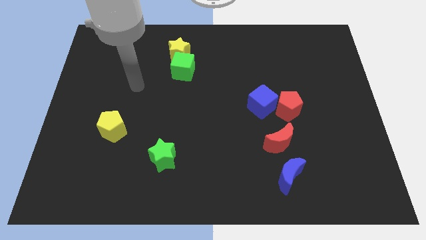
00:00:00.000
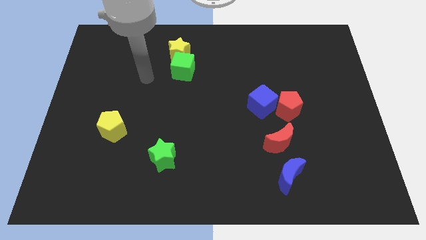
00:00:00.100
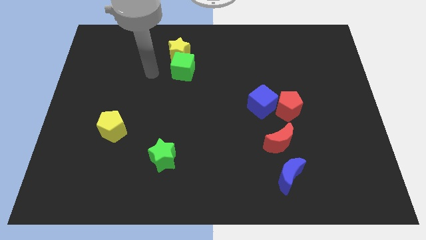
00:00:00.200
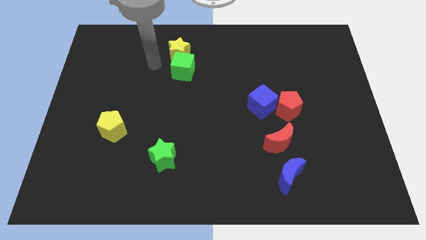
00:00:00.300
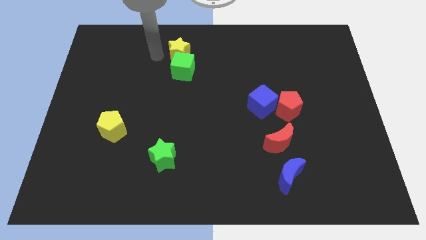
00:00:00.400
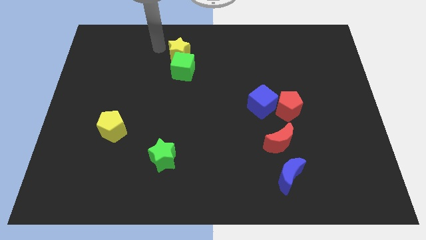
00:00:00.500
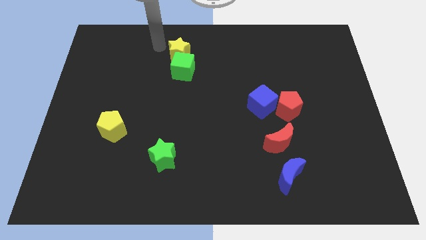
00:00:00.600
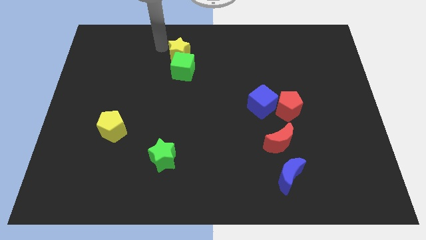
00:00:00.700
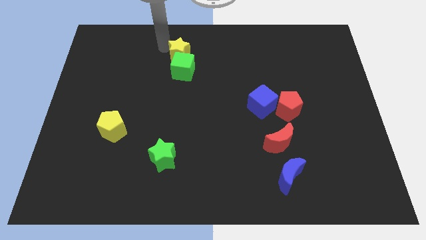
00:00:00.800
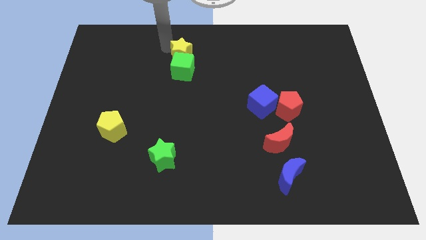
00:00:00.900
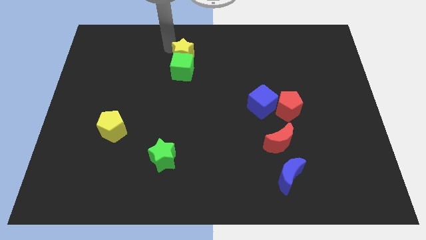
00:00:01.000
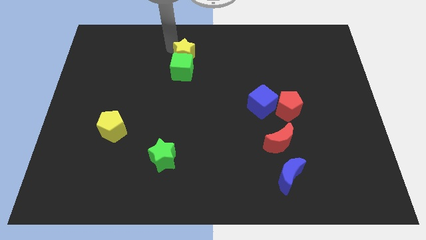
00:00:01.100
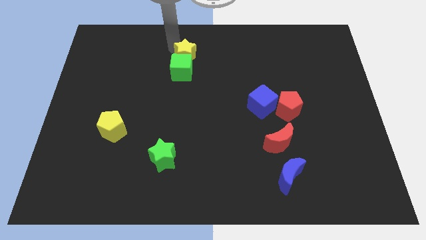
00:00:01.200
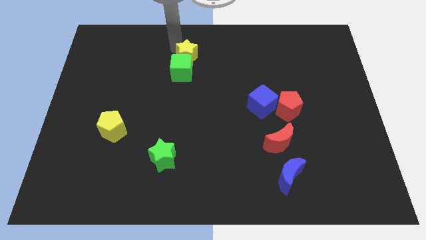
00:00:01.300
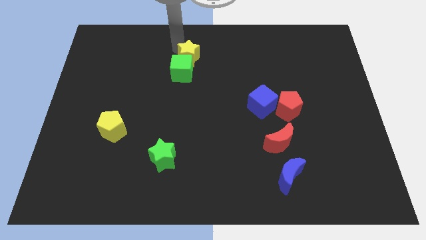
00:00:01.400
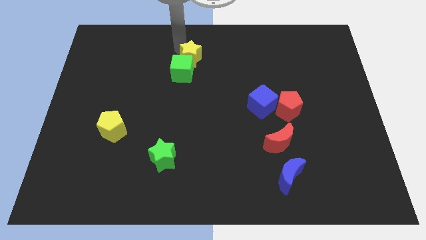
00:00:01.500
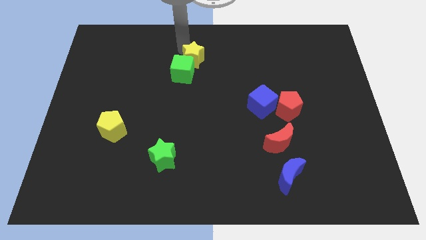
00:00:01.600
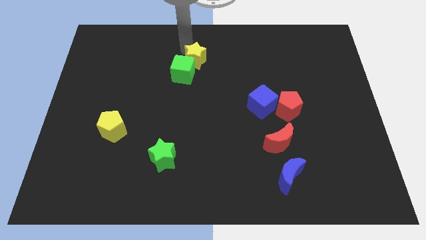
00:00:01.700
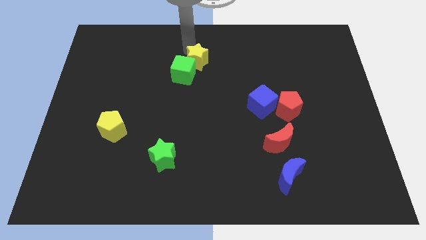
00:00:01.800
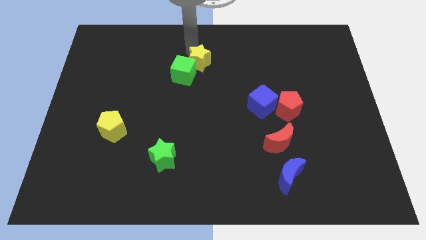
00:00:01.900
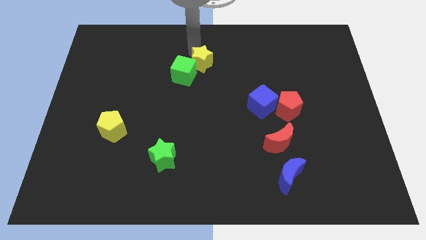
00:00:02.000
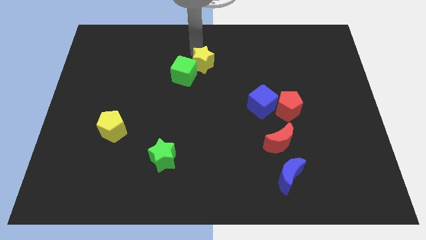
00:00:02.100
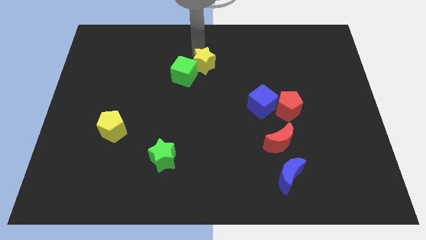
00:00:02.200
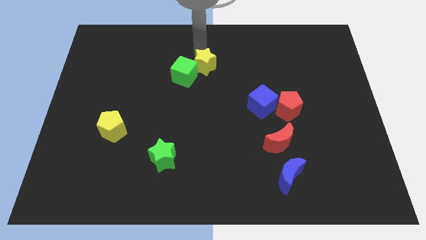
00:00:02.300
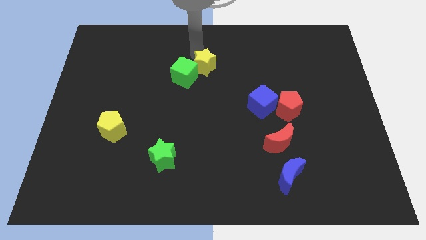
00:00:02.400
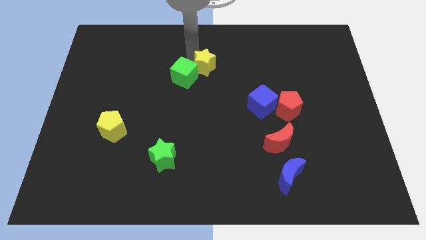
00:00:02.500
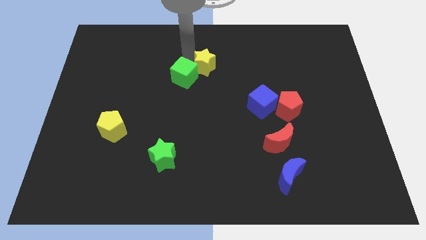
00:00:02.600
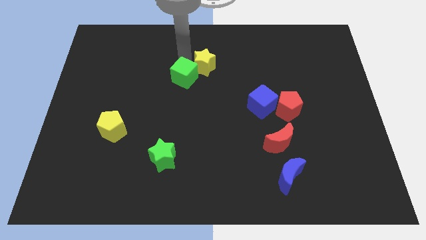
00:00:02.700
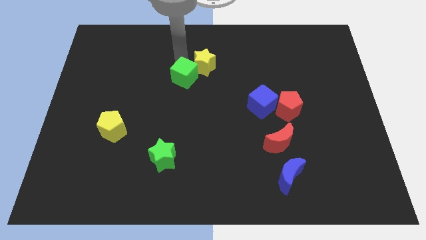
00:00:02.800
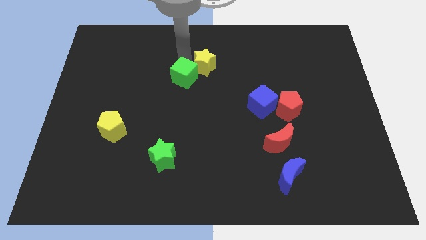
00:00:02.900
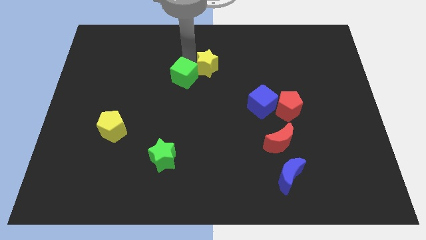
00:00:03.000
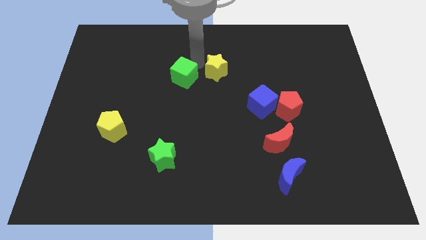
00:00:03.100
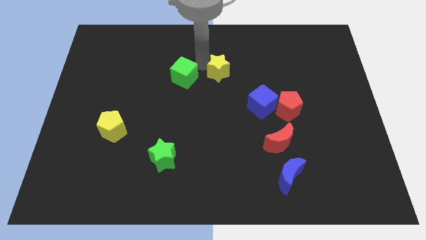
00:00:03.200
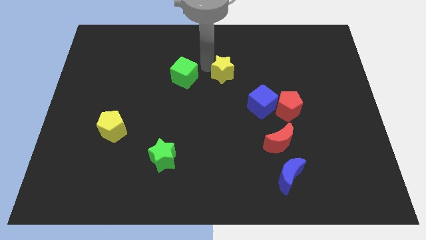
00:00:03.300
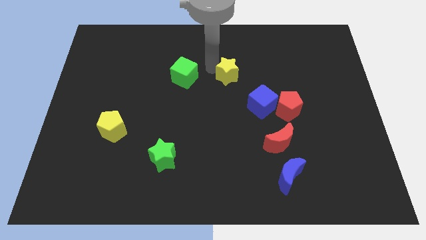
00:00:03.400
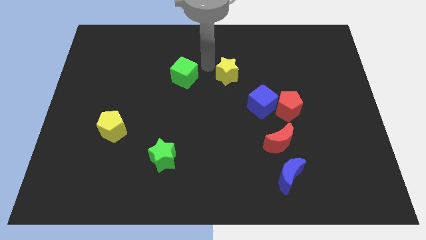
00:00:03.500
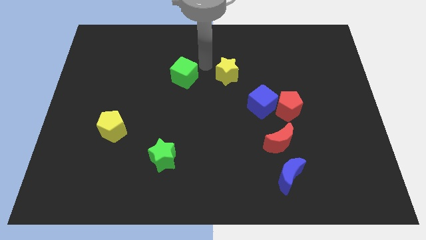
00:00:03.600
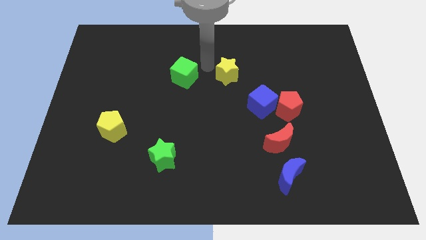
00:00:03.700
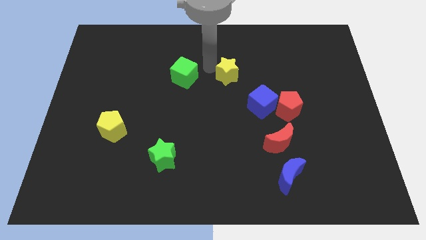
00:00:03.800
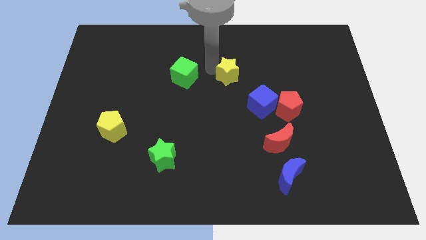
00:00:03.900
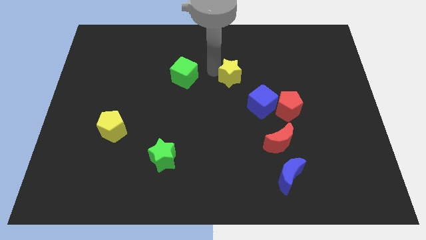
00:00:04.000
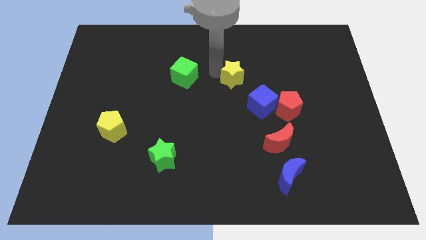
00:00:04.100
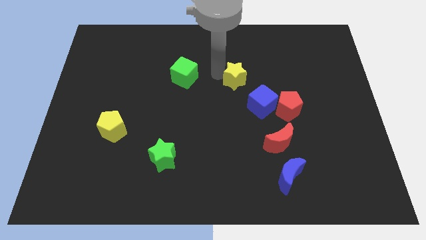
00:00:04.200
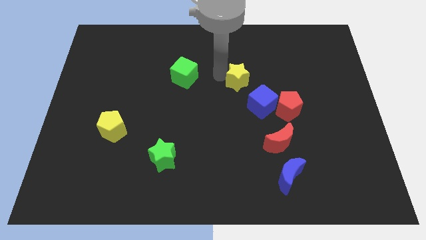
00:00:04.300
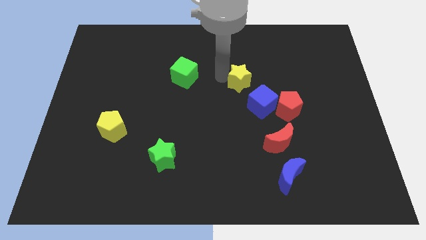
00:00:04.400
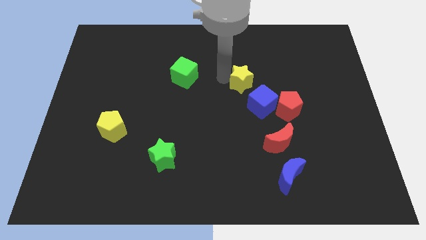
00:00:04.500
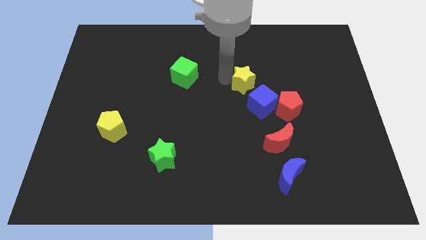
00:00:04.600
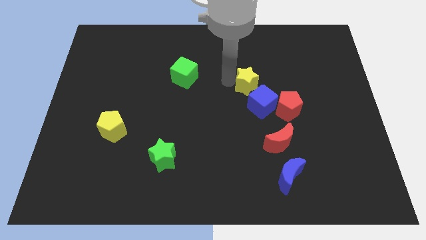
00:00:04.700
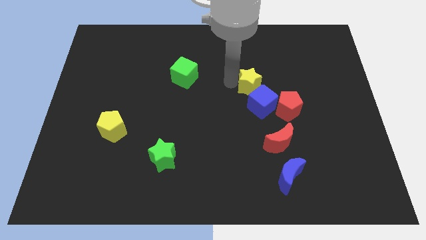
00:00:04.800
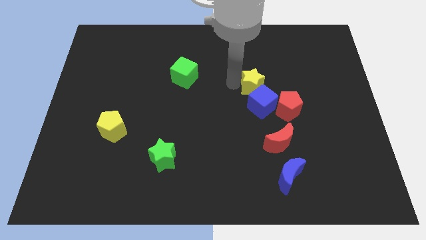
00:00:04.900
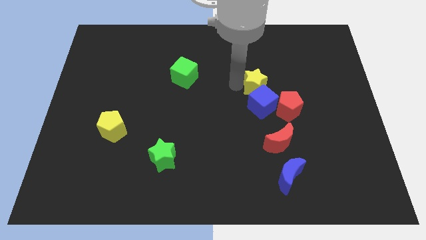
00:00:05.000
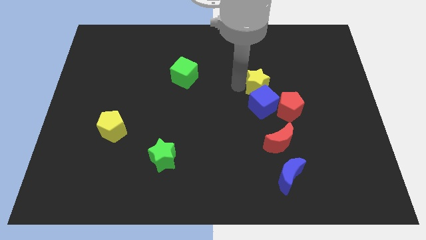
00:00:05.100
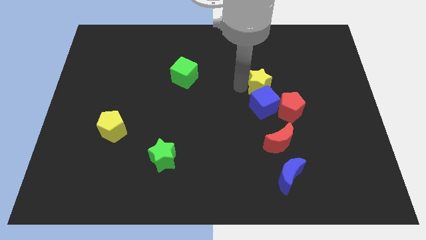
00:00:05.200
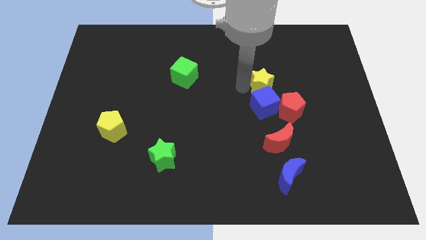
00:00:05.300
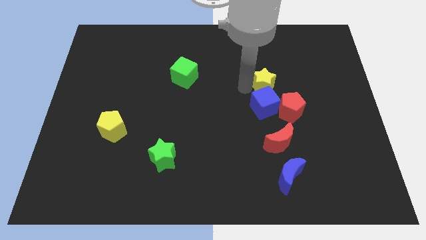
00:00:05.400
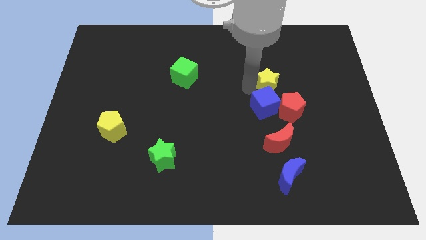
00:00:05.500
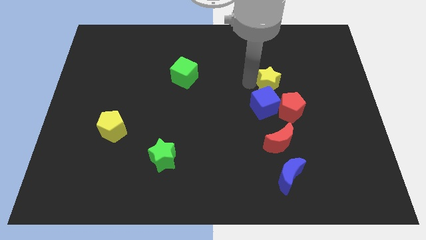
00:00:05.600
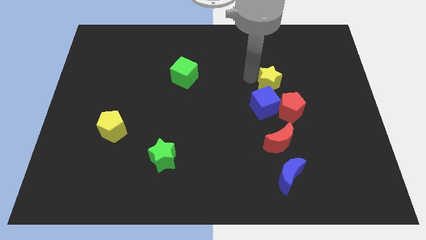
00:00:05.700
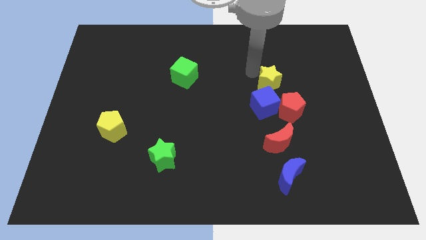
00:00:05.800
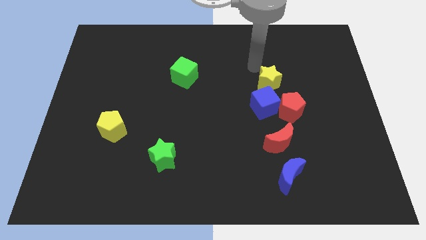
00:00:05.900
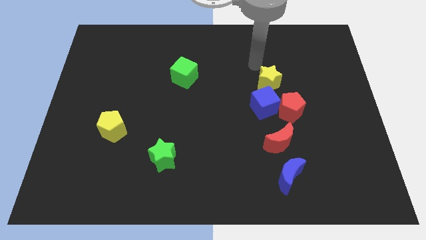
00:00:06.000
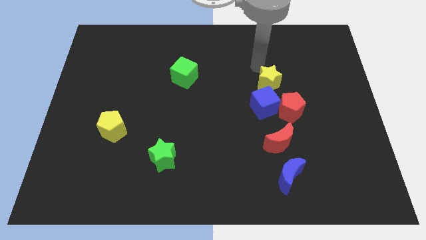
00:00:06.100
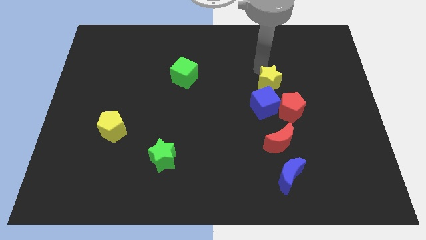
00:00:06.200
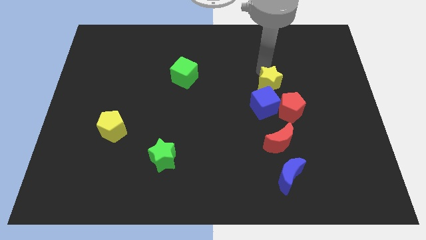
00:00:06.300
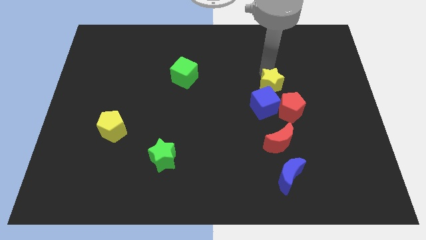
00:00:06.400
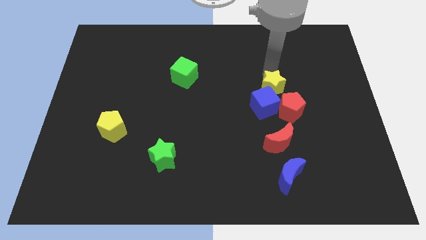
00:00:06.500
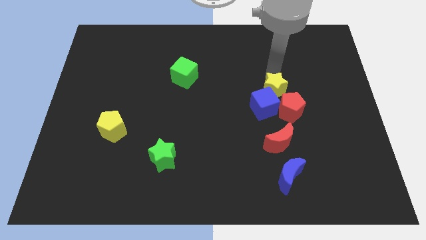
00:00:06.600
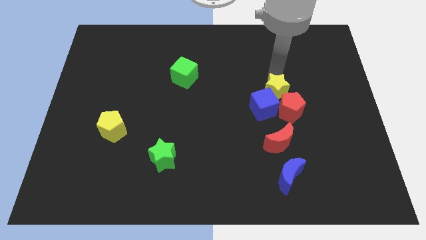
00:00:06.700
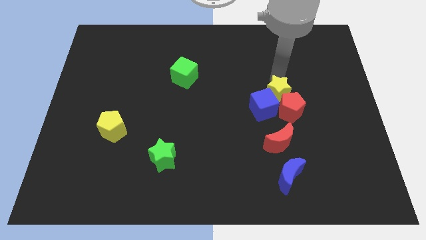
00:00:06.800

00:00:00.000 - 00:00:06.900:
push the yellow star close to the red pentagon

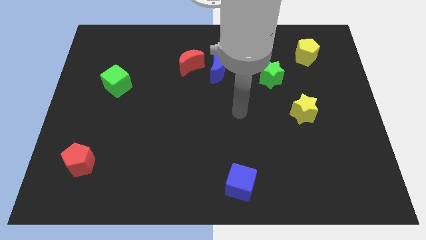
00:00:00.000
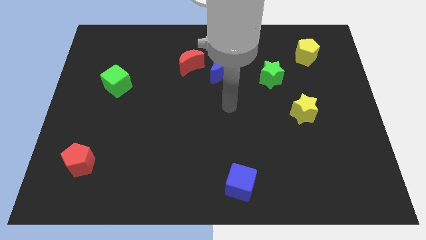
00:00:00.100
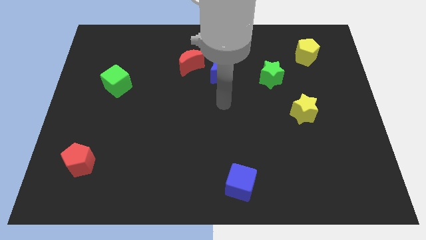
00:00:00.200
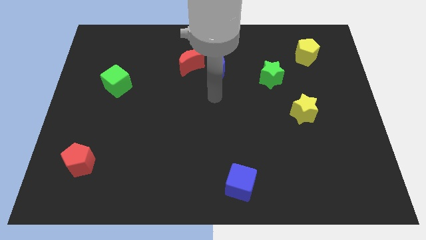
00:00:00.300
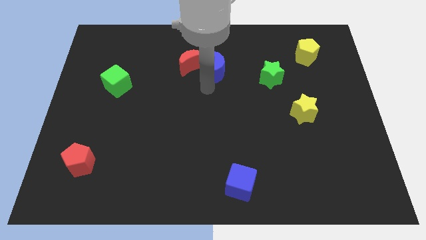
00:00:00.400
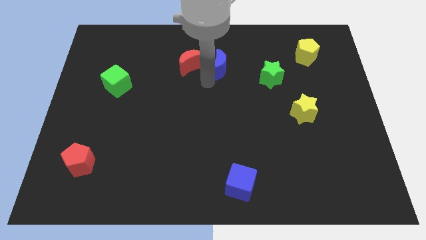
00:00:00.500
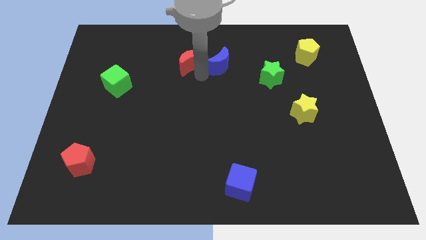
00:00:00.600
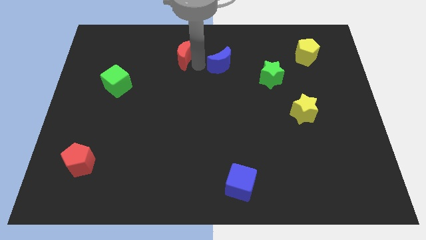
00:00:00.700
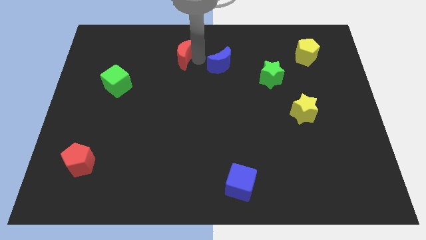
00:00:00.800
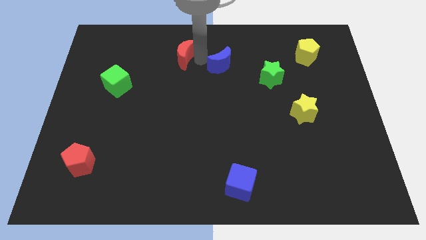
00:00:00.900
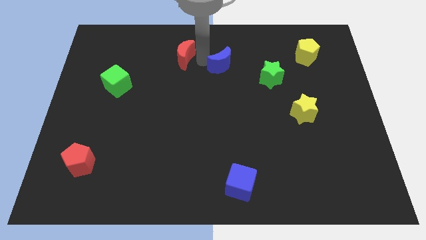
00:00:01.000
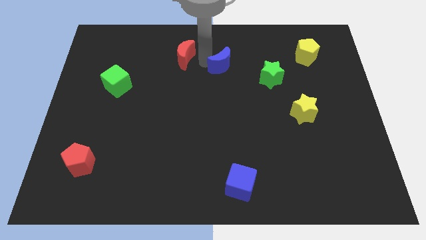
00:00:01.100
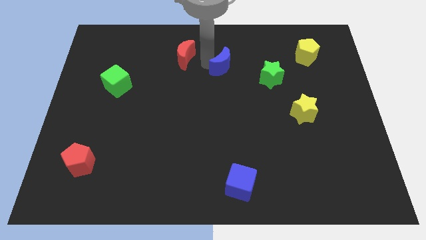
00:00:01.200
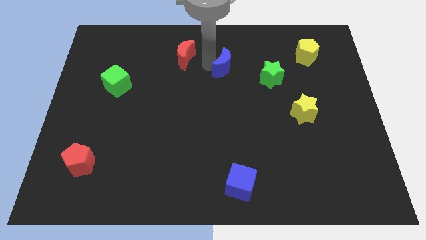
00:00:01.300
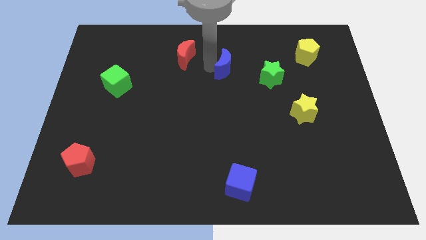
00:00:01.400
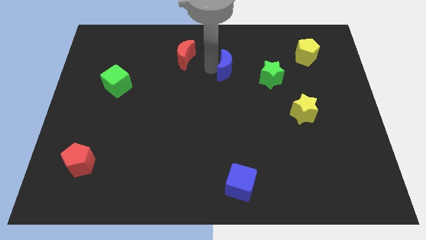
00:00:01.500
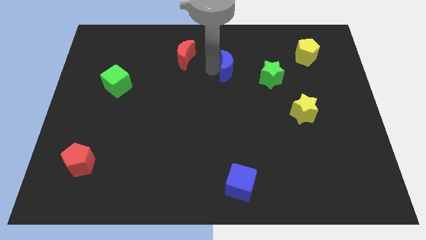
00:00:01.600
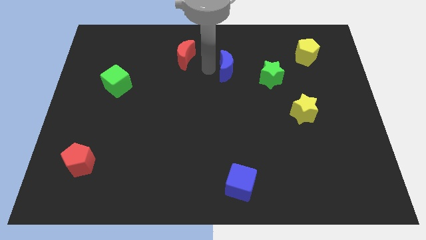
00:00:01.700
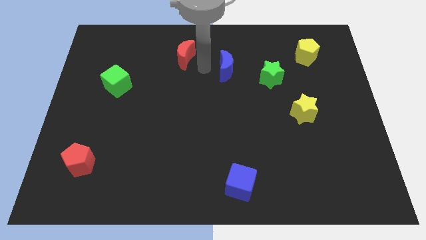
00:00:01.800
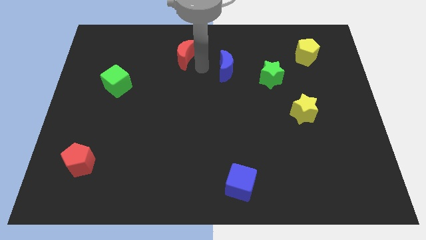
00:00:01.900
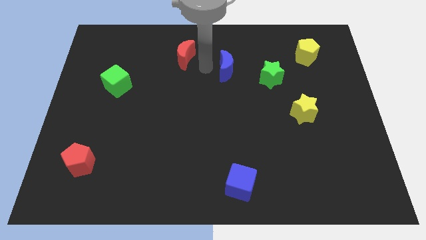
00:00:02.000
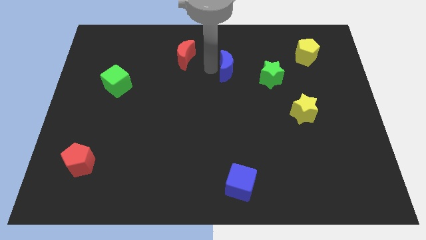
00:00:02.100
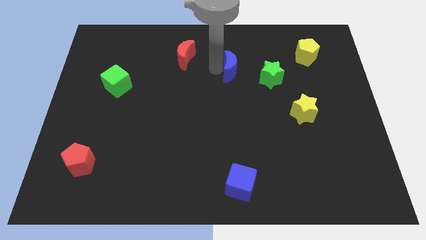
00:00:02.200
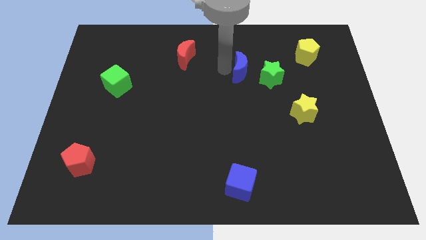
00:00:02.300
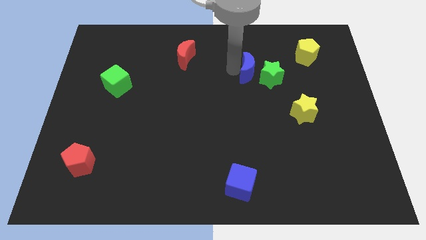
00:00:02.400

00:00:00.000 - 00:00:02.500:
slide the blue moon next to the green star
